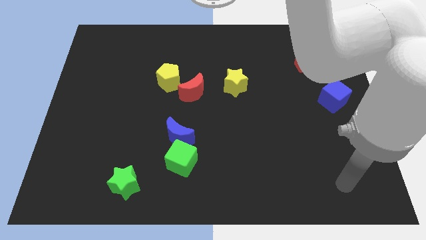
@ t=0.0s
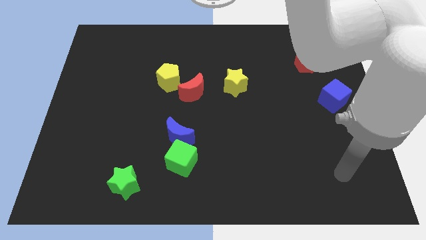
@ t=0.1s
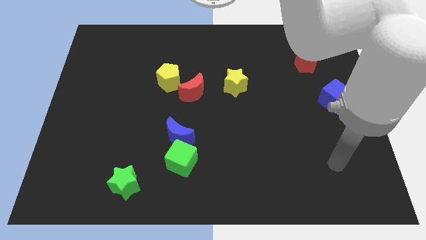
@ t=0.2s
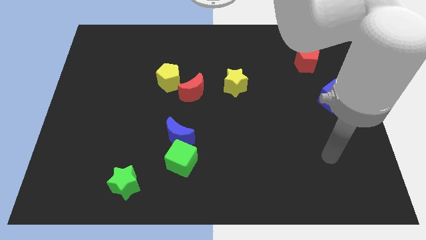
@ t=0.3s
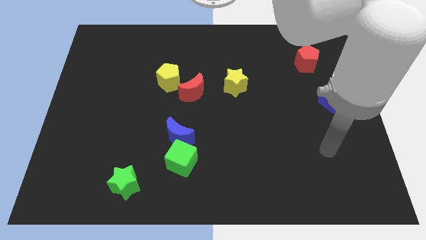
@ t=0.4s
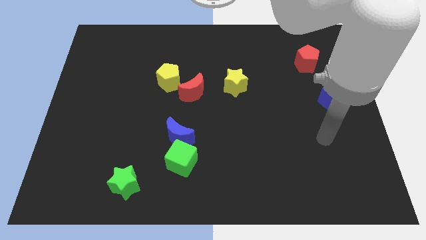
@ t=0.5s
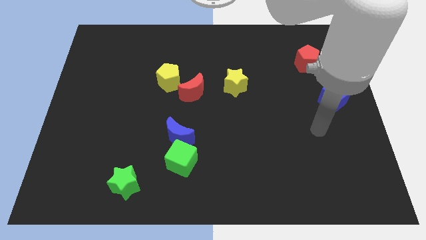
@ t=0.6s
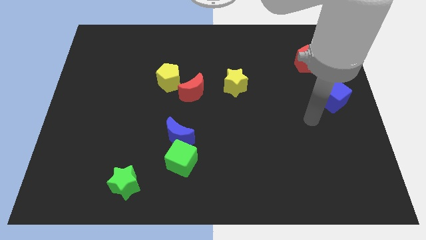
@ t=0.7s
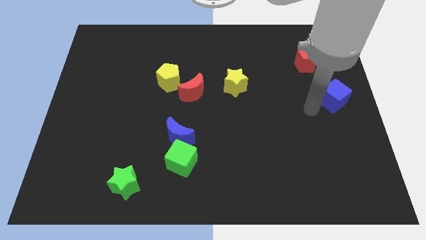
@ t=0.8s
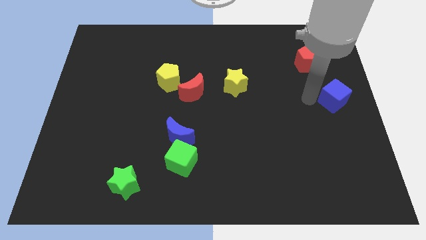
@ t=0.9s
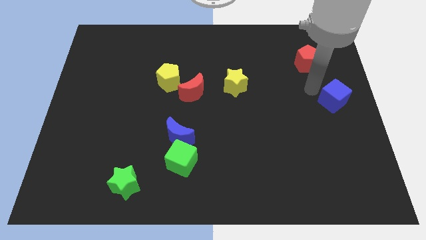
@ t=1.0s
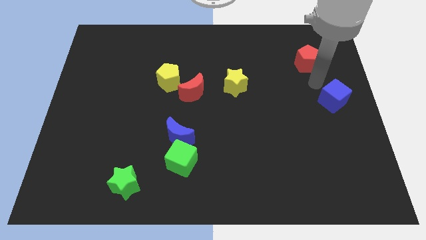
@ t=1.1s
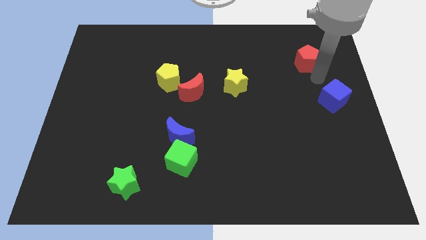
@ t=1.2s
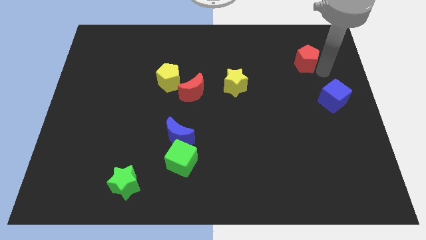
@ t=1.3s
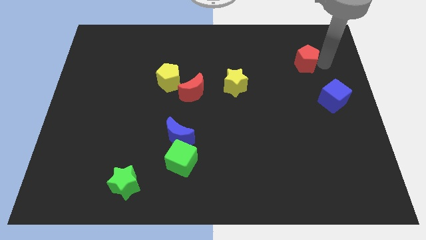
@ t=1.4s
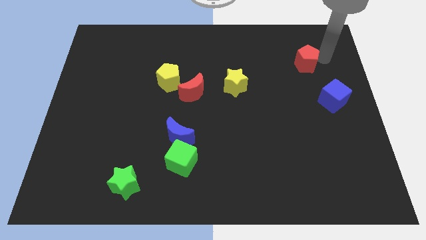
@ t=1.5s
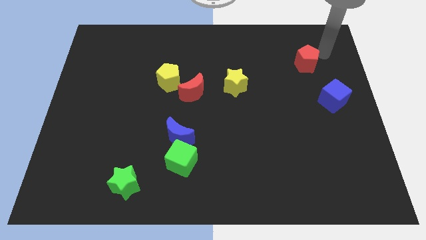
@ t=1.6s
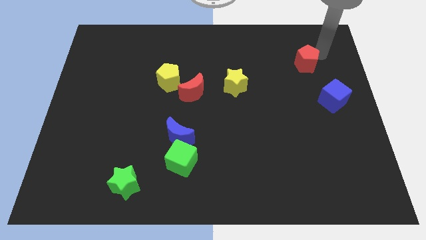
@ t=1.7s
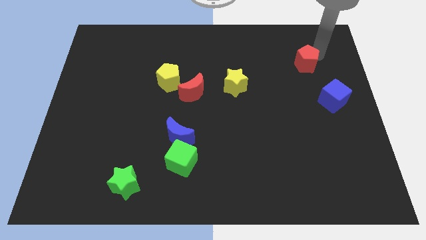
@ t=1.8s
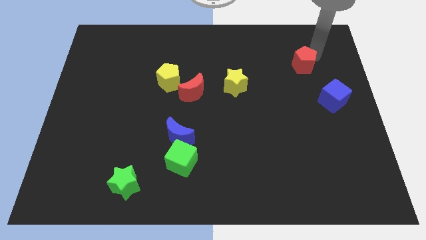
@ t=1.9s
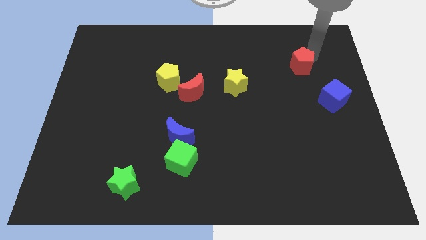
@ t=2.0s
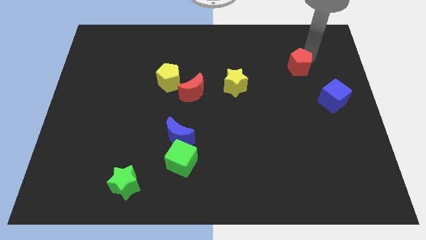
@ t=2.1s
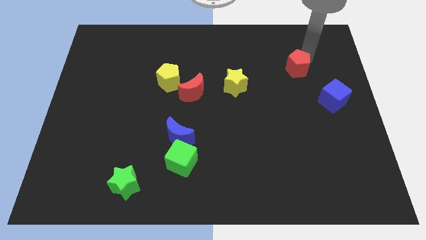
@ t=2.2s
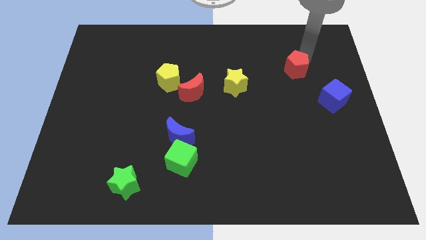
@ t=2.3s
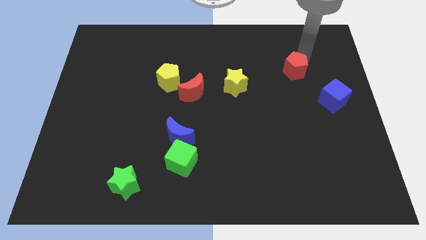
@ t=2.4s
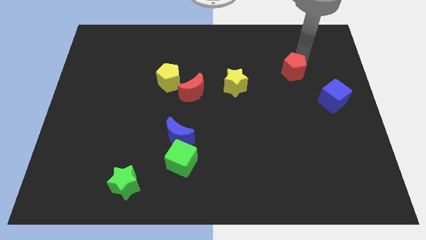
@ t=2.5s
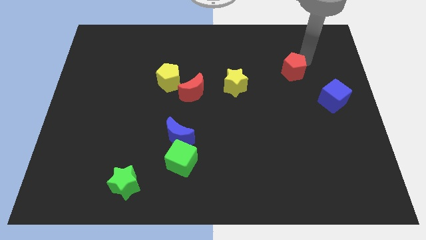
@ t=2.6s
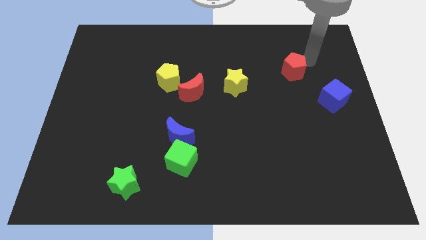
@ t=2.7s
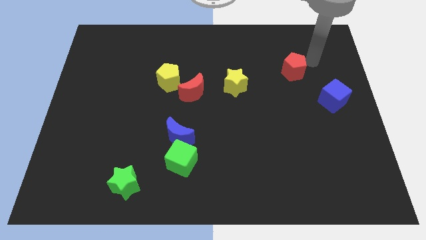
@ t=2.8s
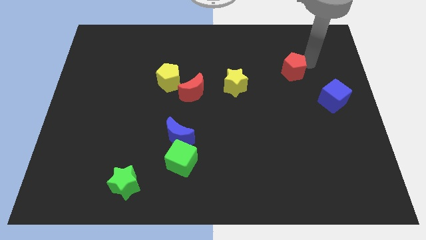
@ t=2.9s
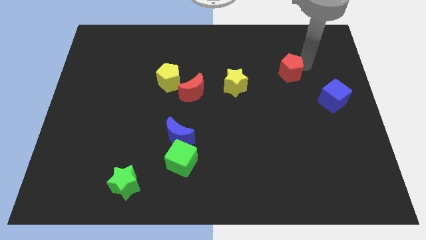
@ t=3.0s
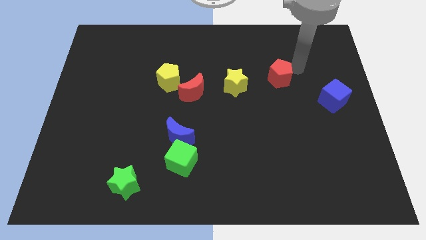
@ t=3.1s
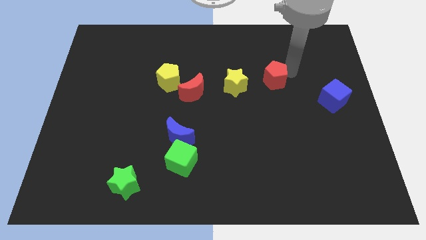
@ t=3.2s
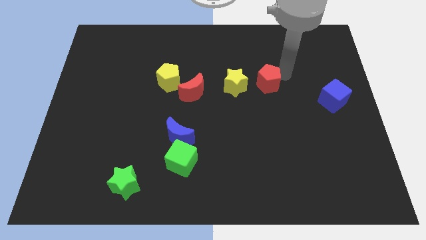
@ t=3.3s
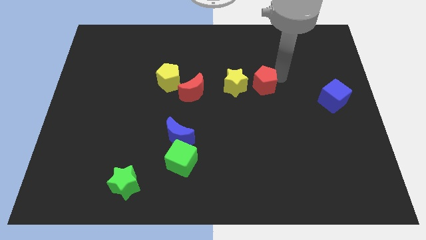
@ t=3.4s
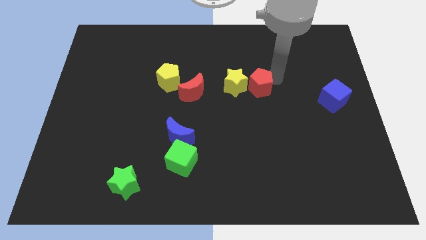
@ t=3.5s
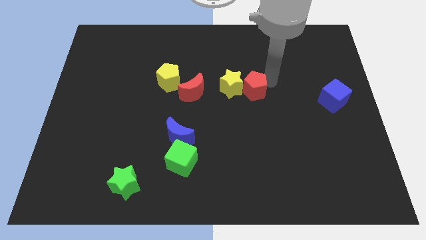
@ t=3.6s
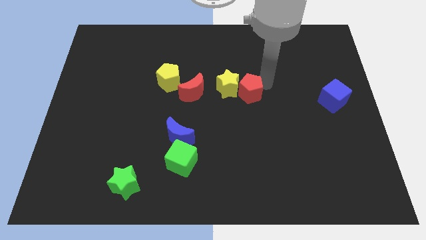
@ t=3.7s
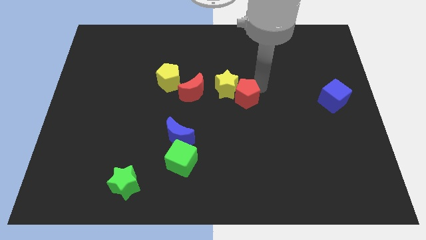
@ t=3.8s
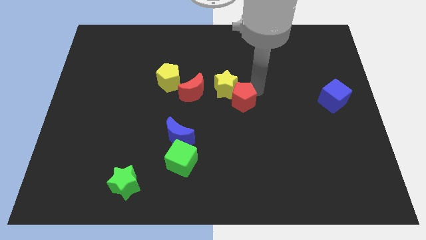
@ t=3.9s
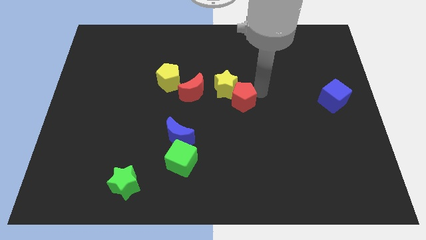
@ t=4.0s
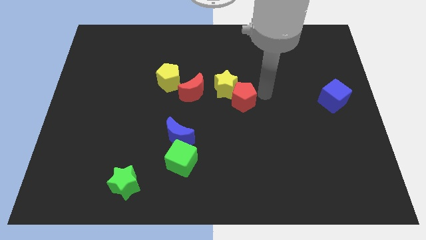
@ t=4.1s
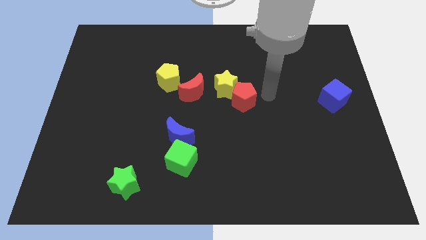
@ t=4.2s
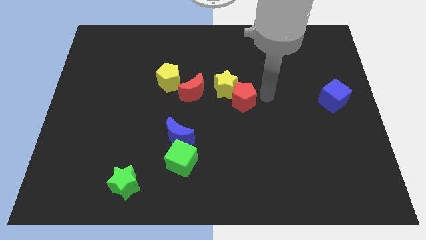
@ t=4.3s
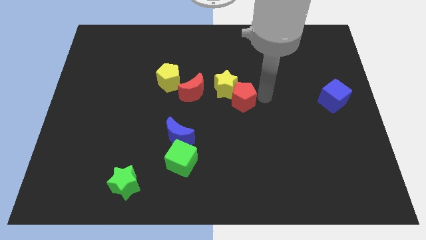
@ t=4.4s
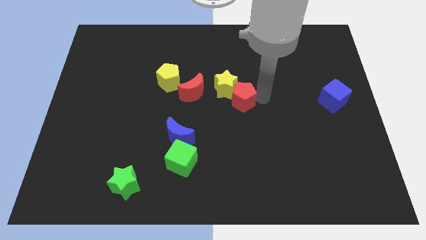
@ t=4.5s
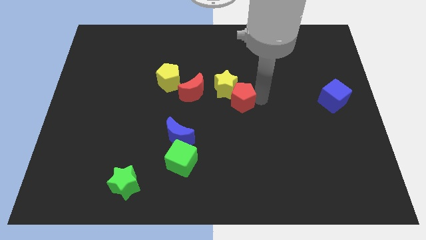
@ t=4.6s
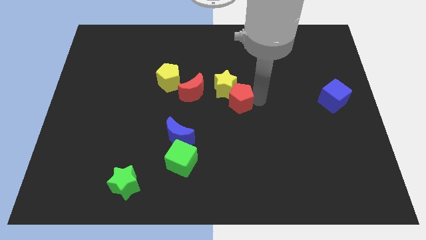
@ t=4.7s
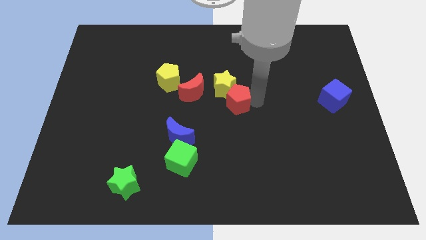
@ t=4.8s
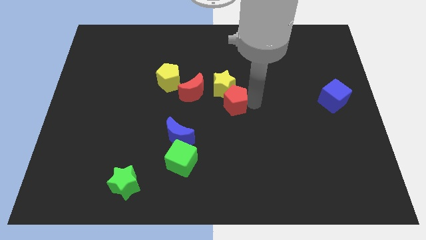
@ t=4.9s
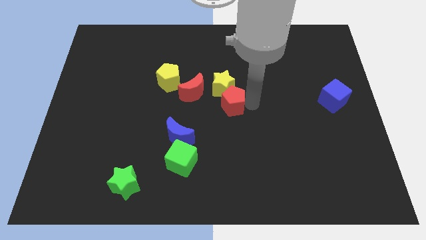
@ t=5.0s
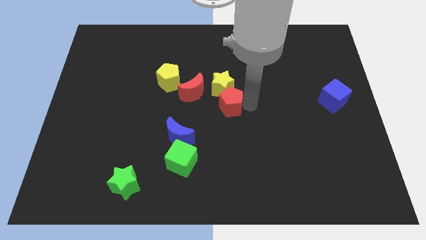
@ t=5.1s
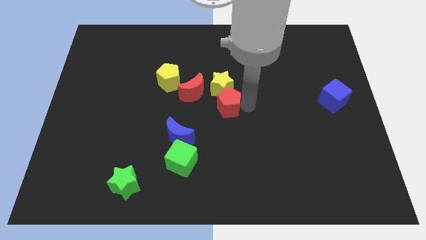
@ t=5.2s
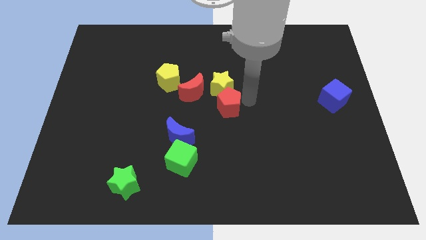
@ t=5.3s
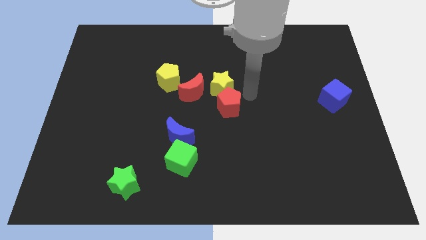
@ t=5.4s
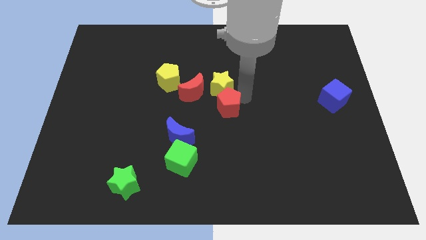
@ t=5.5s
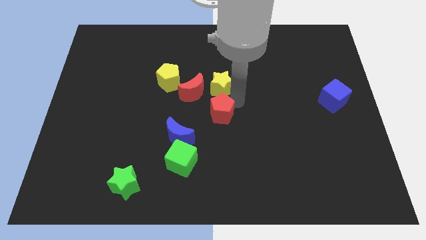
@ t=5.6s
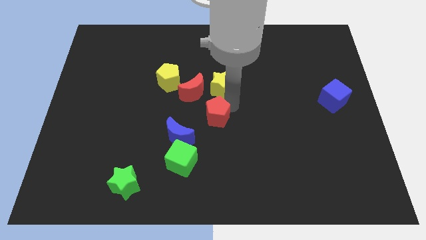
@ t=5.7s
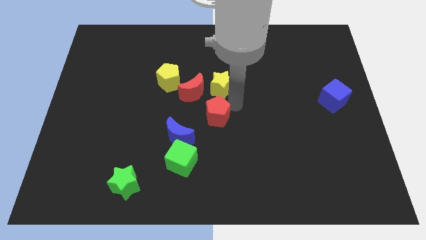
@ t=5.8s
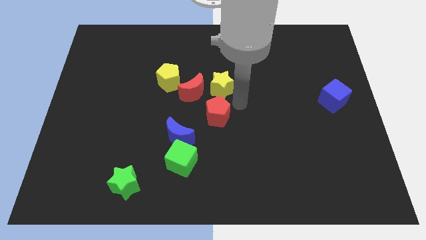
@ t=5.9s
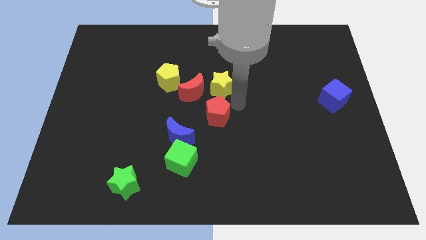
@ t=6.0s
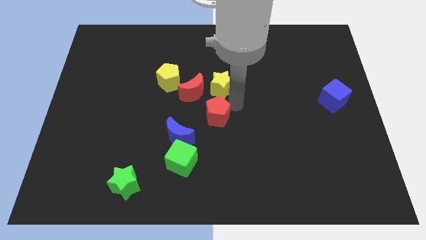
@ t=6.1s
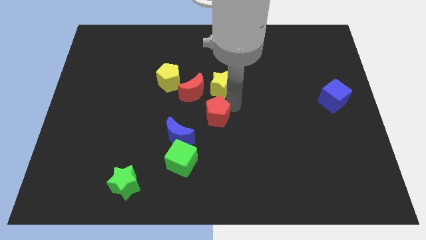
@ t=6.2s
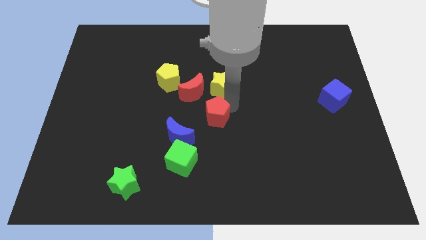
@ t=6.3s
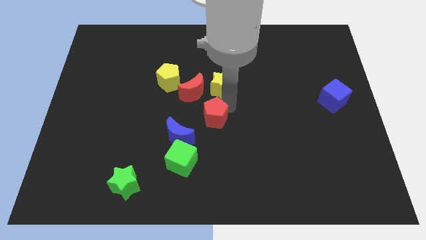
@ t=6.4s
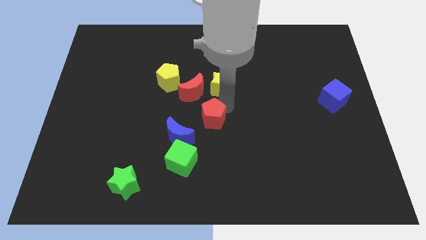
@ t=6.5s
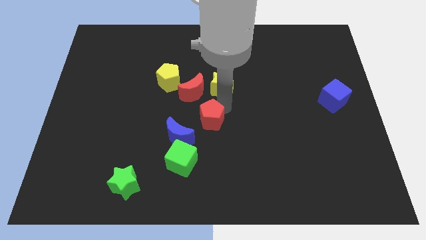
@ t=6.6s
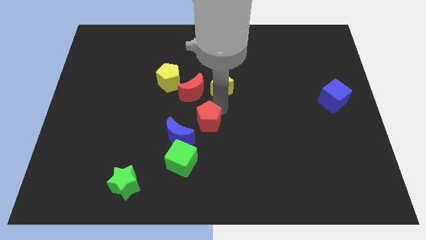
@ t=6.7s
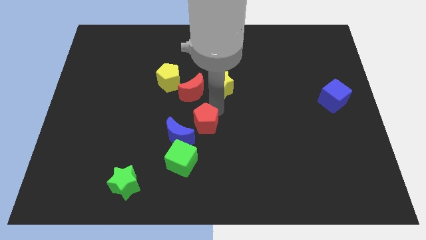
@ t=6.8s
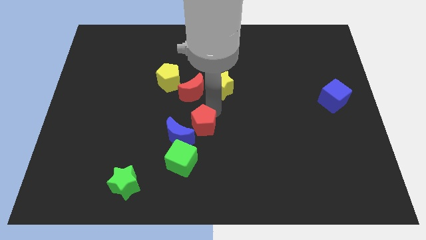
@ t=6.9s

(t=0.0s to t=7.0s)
put the red pentagon to the blue moon

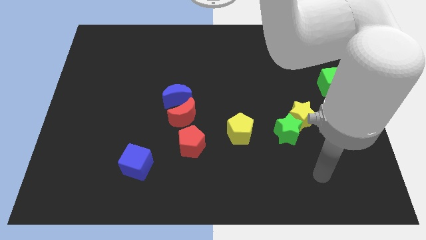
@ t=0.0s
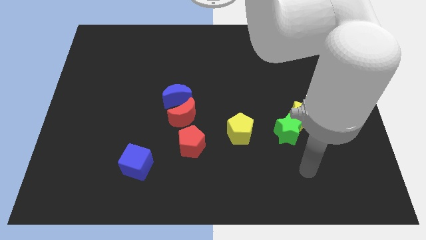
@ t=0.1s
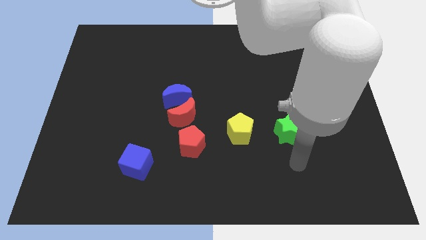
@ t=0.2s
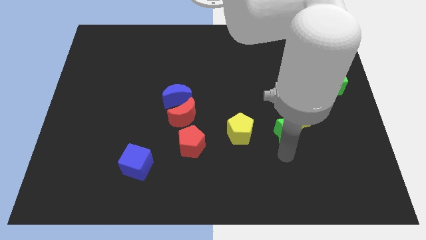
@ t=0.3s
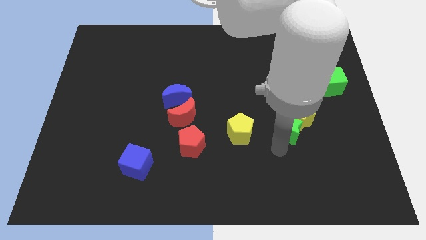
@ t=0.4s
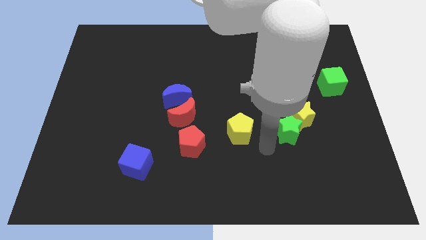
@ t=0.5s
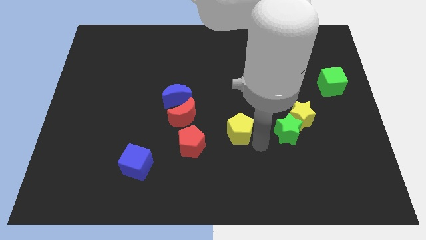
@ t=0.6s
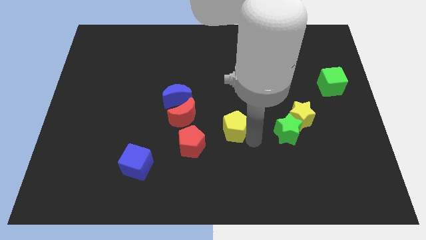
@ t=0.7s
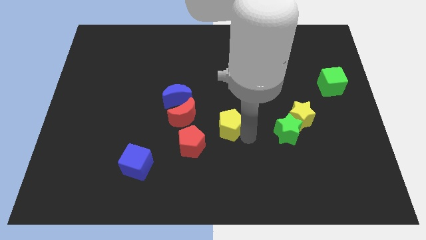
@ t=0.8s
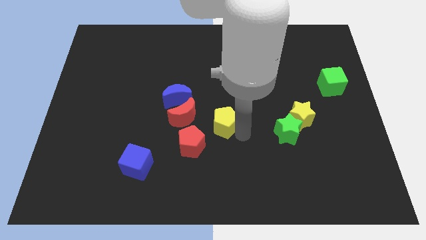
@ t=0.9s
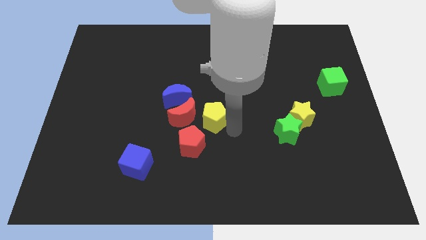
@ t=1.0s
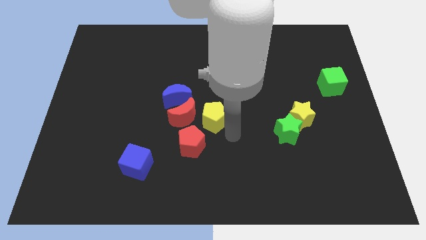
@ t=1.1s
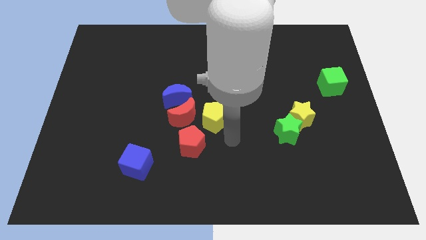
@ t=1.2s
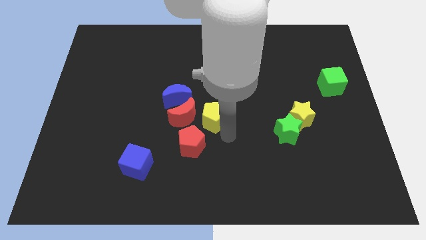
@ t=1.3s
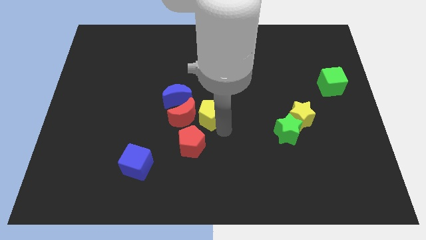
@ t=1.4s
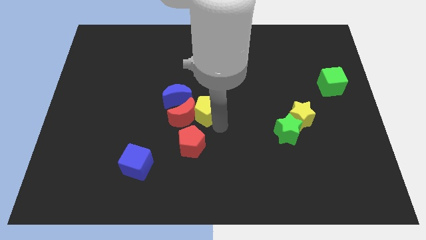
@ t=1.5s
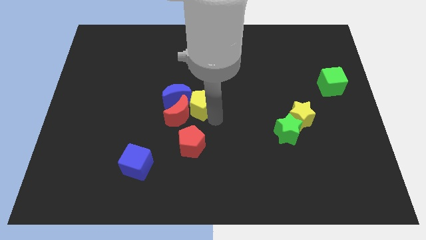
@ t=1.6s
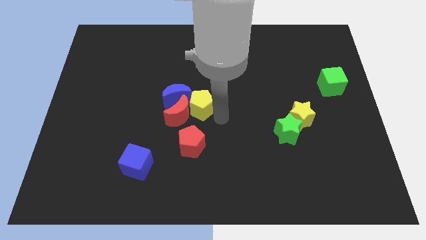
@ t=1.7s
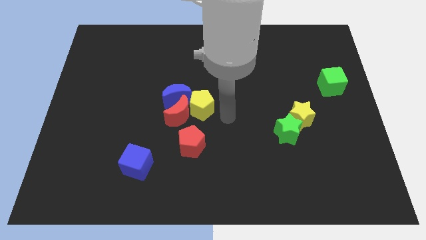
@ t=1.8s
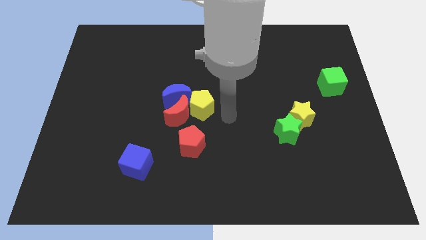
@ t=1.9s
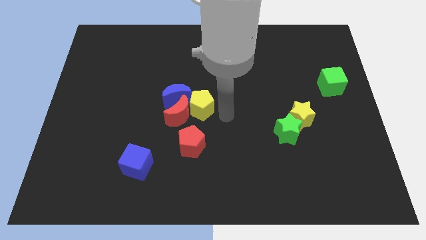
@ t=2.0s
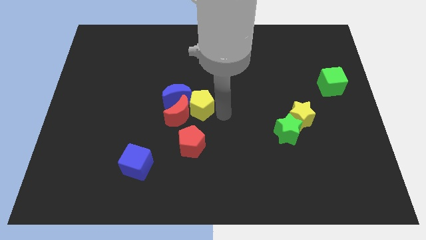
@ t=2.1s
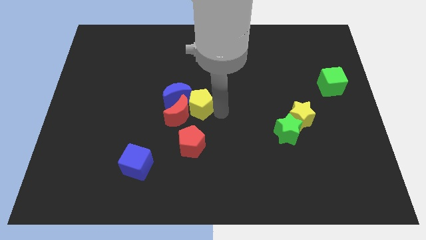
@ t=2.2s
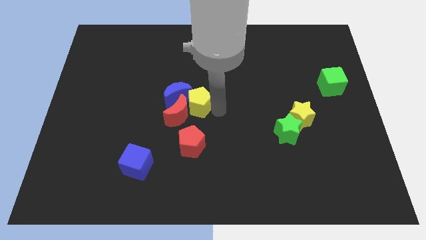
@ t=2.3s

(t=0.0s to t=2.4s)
slide the yellow pentagon close to the blue moon
